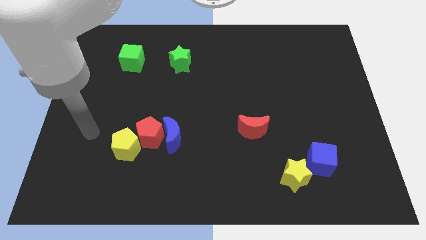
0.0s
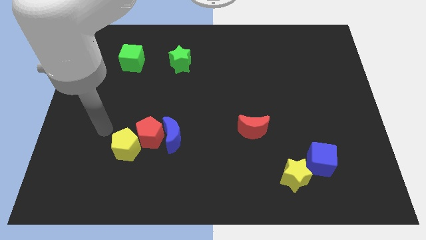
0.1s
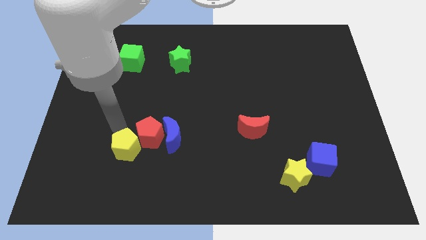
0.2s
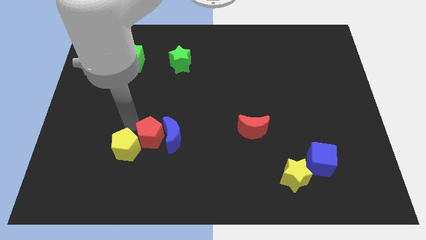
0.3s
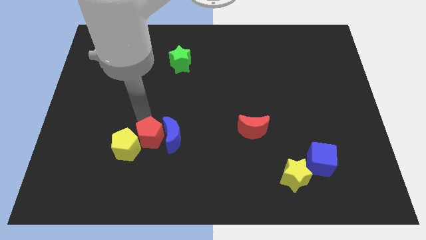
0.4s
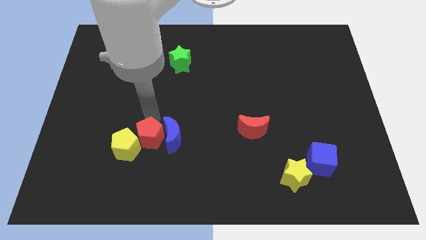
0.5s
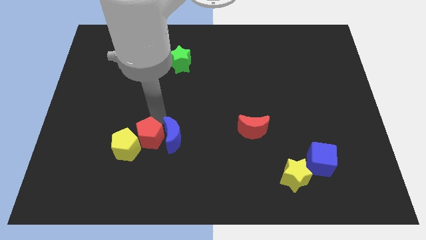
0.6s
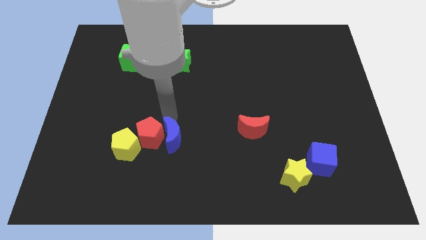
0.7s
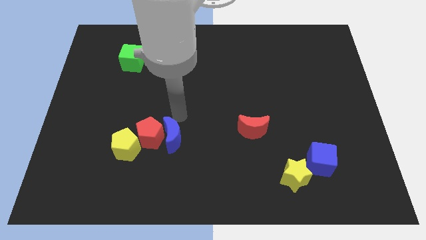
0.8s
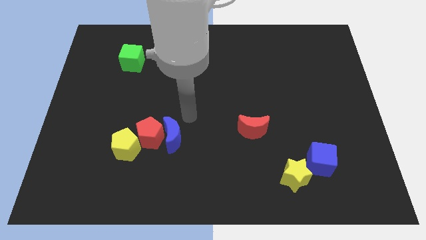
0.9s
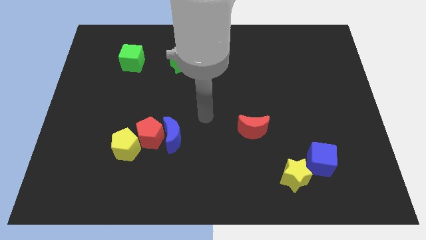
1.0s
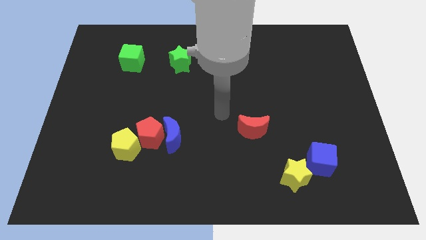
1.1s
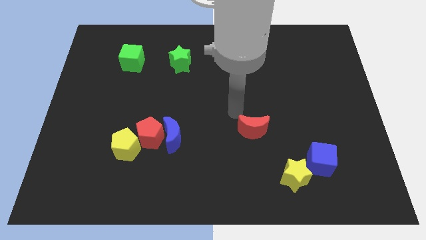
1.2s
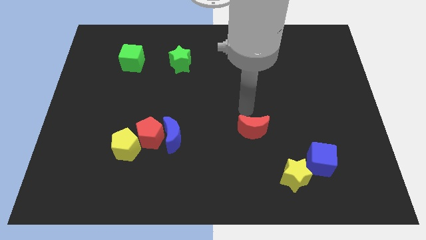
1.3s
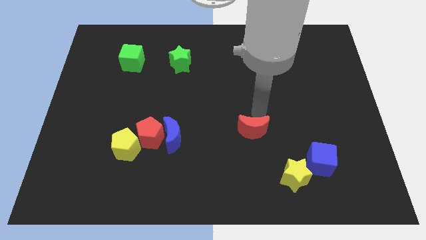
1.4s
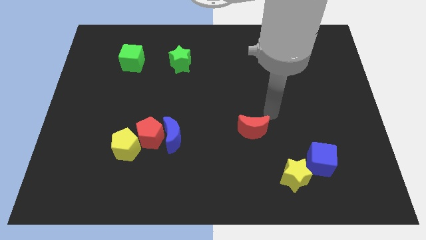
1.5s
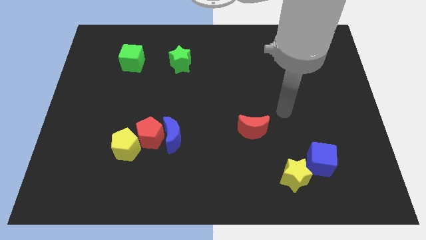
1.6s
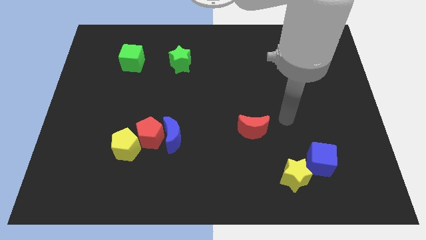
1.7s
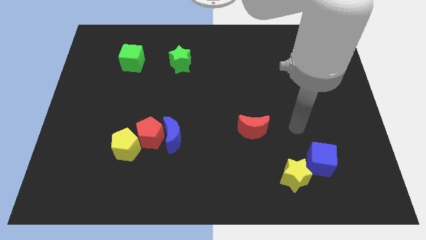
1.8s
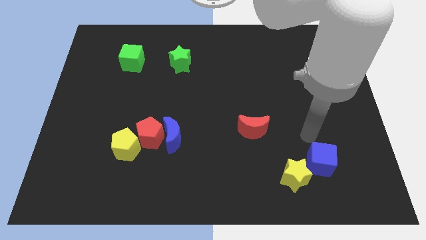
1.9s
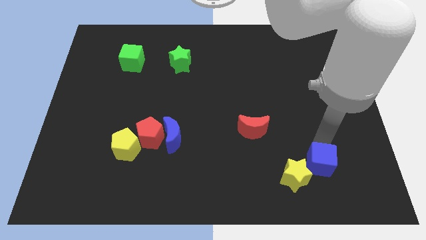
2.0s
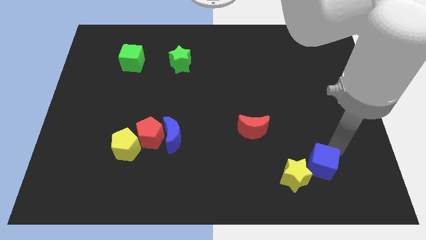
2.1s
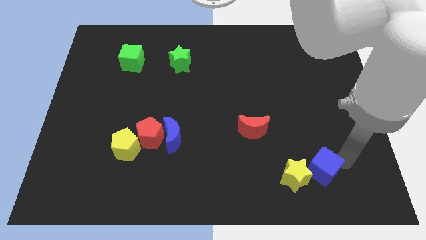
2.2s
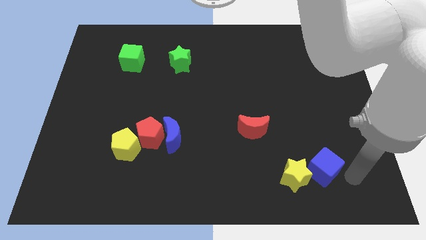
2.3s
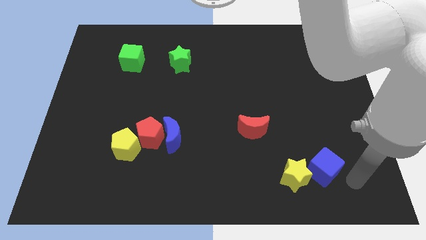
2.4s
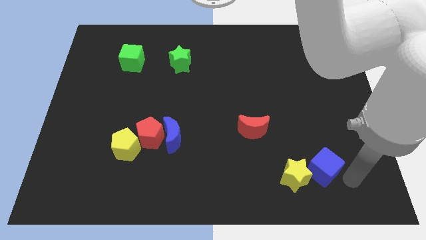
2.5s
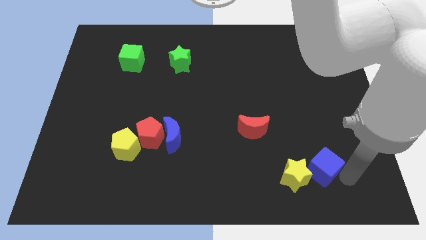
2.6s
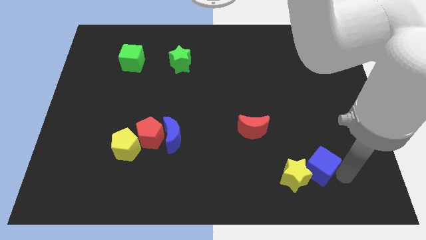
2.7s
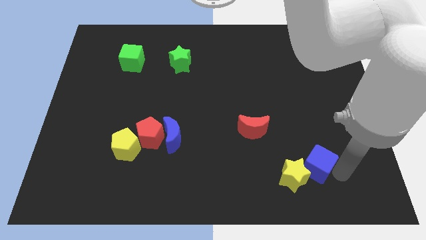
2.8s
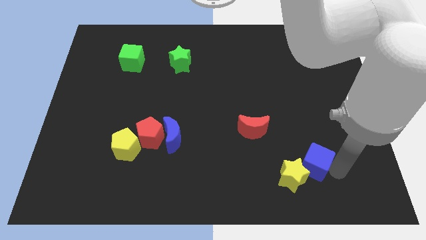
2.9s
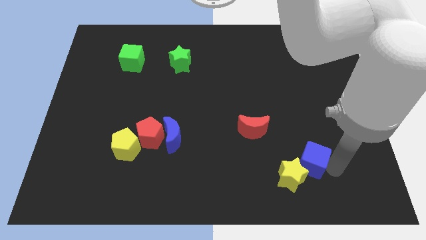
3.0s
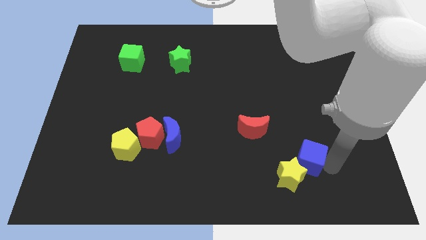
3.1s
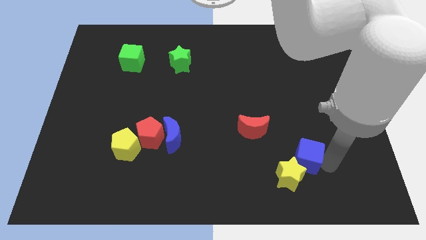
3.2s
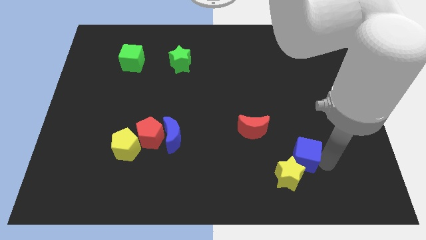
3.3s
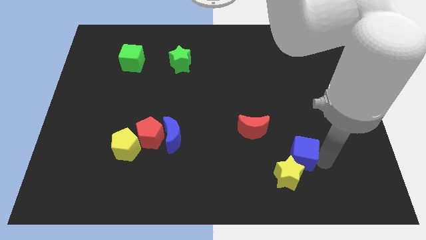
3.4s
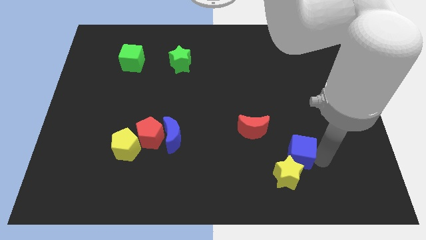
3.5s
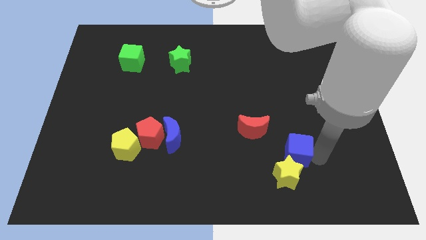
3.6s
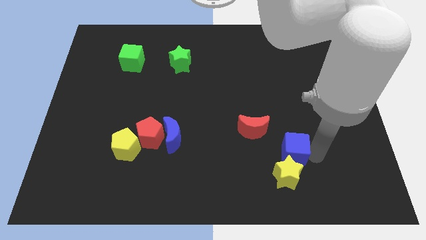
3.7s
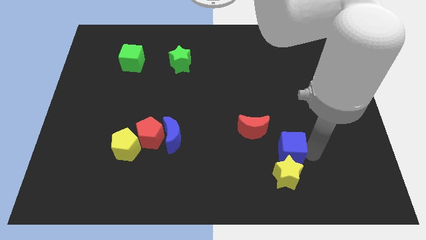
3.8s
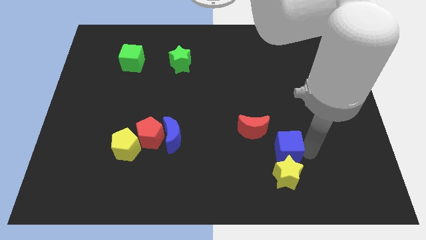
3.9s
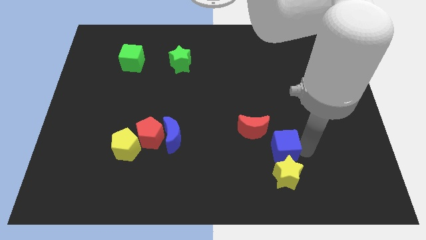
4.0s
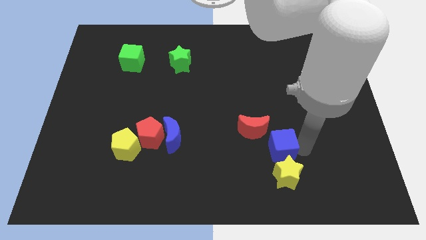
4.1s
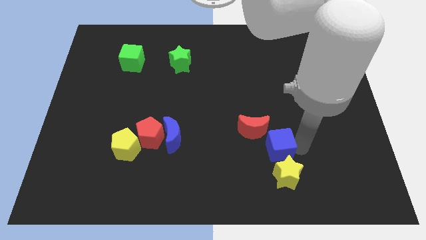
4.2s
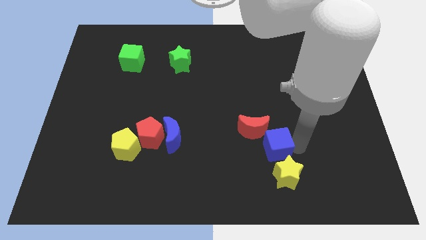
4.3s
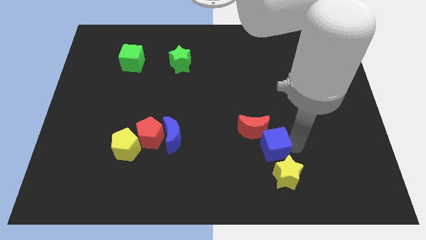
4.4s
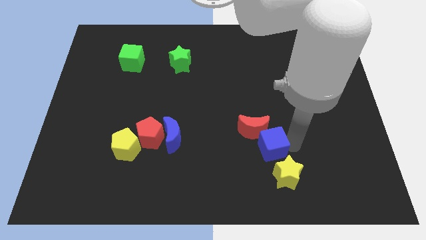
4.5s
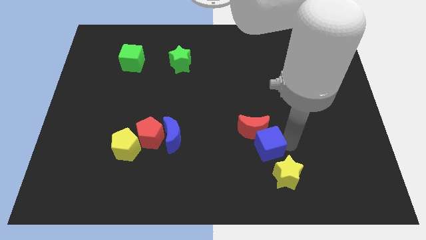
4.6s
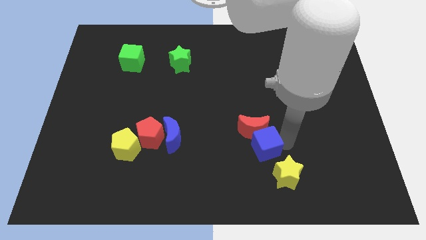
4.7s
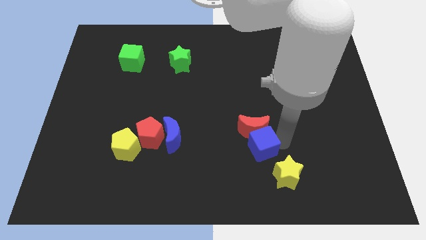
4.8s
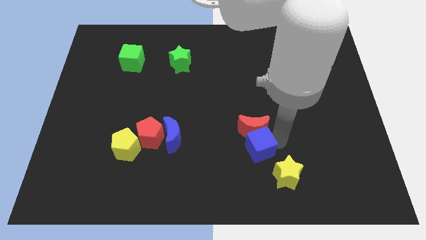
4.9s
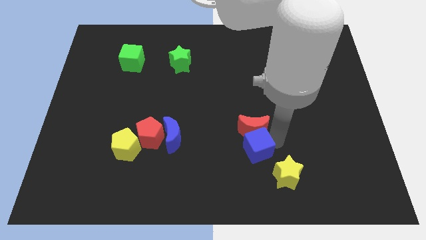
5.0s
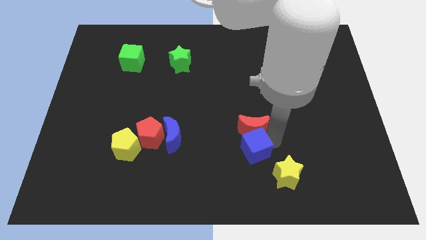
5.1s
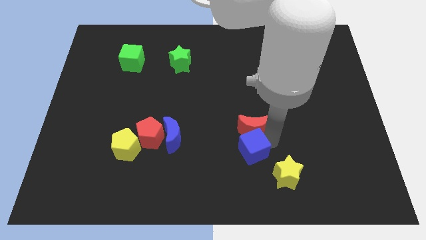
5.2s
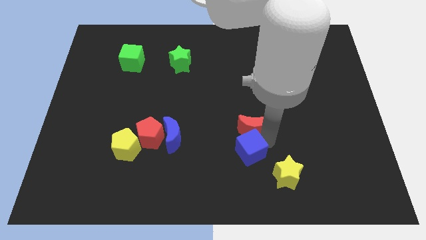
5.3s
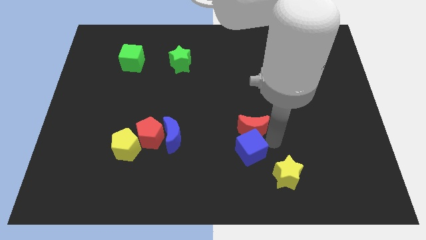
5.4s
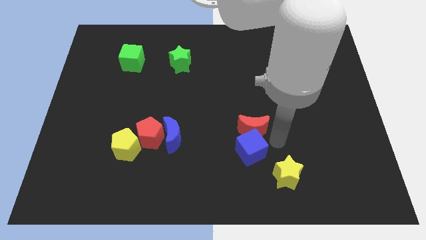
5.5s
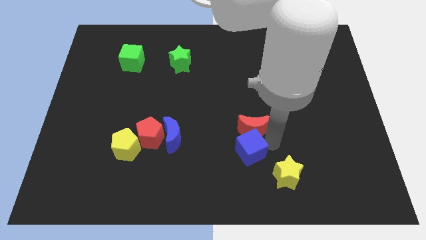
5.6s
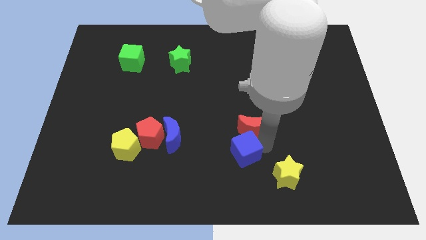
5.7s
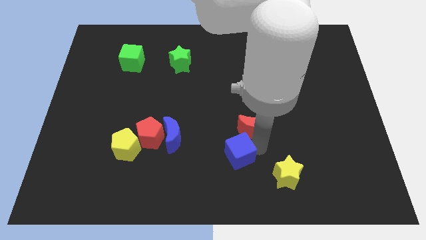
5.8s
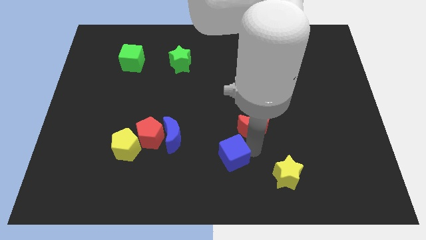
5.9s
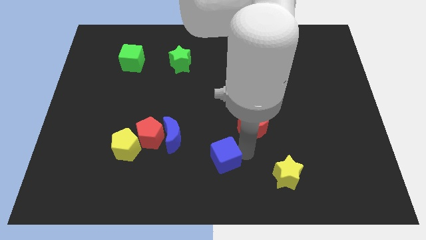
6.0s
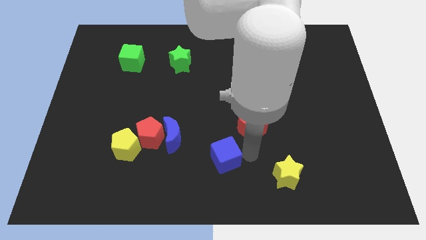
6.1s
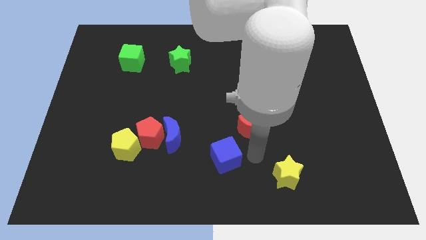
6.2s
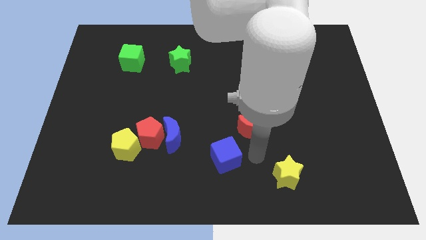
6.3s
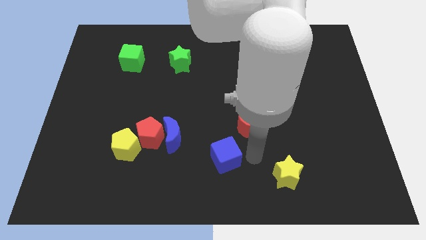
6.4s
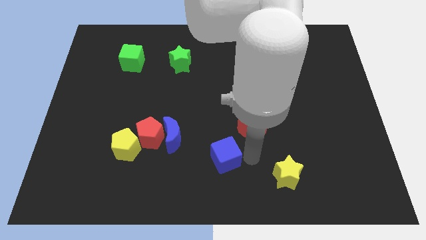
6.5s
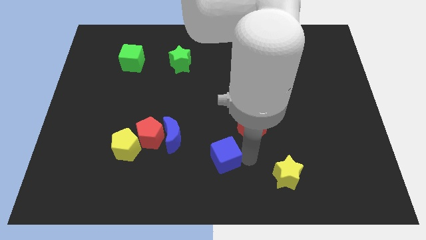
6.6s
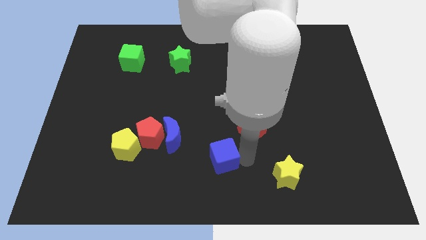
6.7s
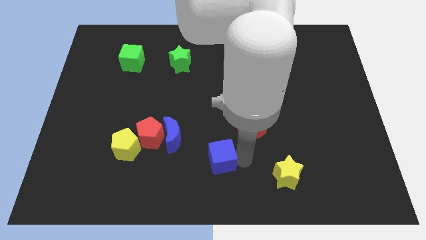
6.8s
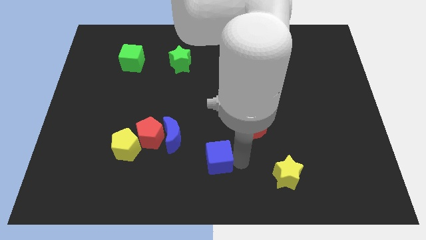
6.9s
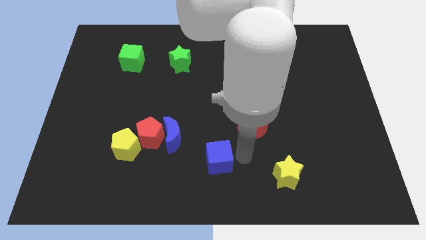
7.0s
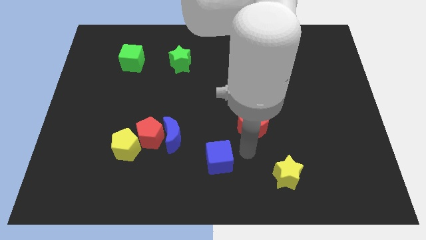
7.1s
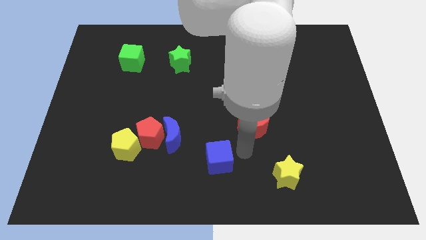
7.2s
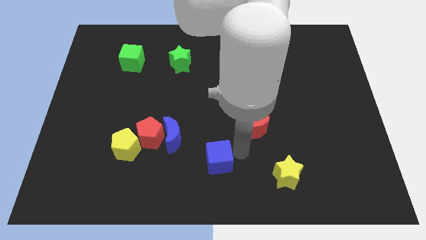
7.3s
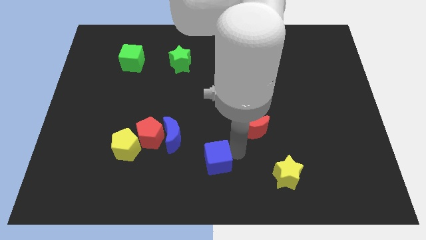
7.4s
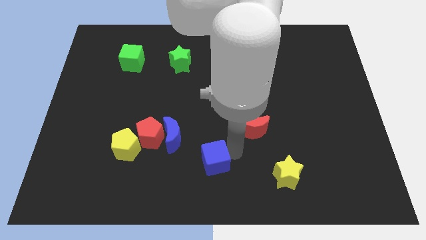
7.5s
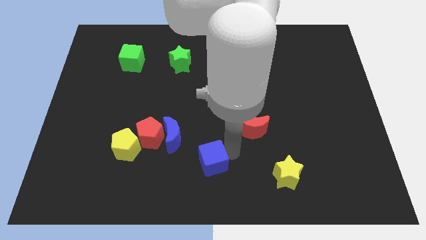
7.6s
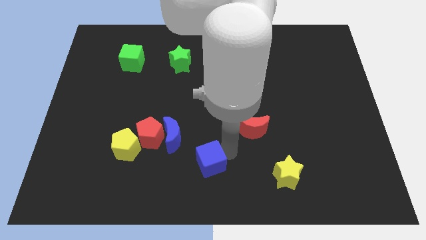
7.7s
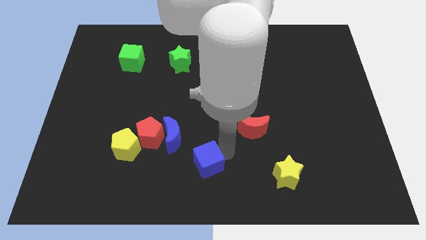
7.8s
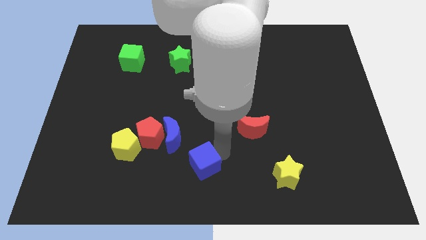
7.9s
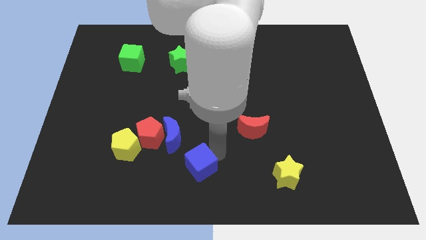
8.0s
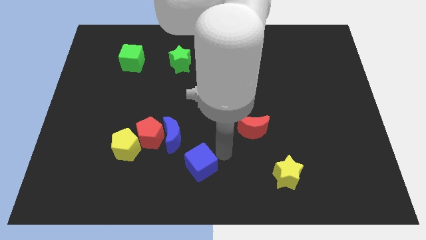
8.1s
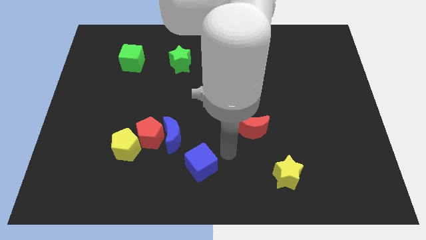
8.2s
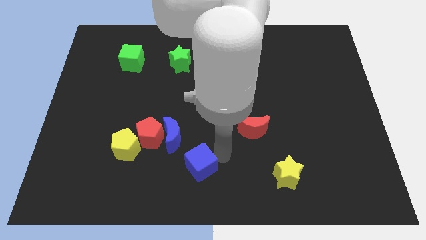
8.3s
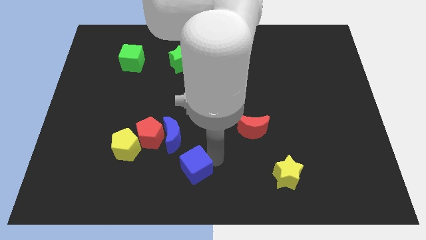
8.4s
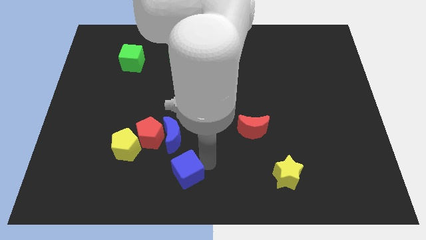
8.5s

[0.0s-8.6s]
push the blue cube to the bottom of the blue moon
